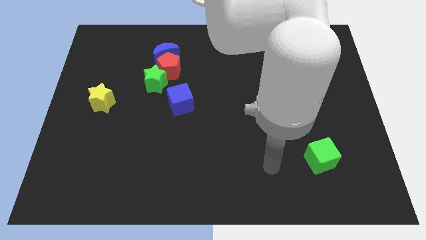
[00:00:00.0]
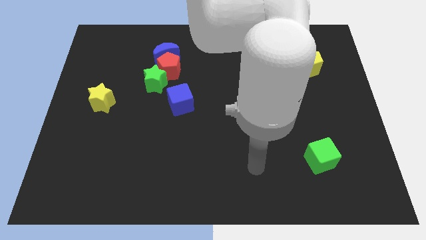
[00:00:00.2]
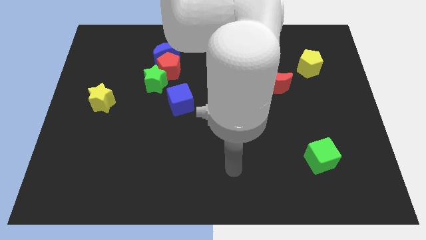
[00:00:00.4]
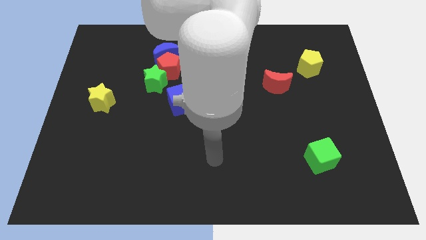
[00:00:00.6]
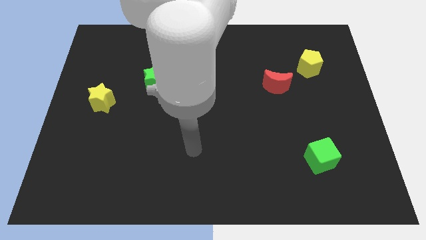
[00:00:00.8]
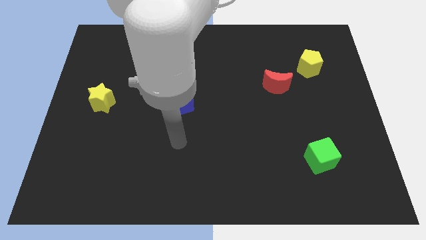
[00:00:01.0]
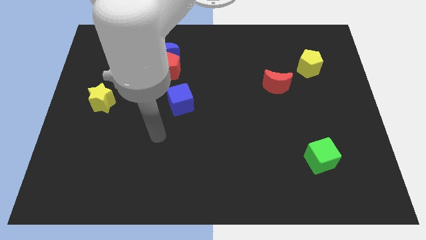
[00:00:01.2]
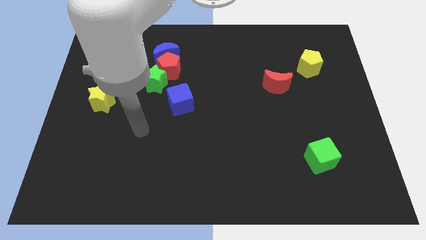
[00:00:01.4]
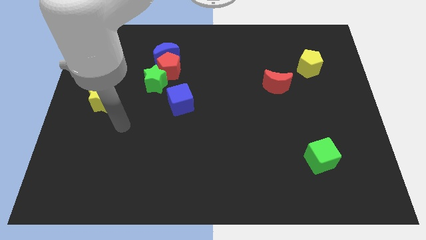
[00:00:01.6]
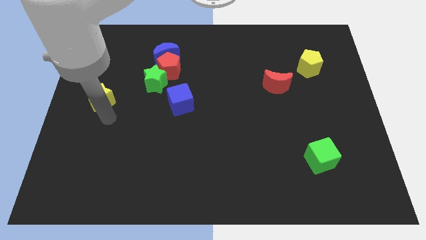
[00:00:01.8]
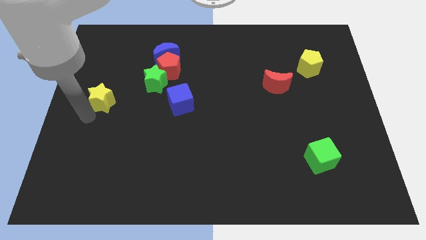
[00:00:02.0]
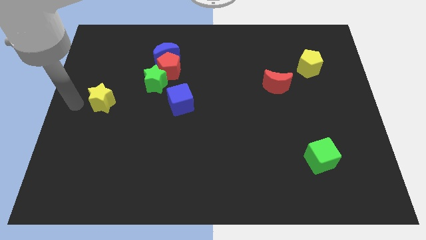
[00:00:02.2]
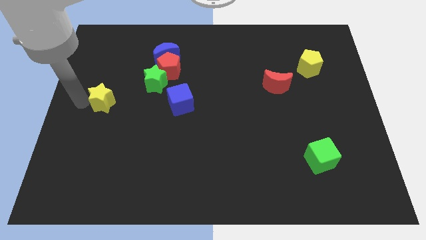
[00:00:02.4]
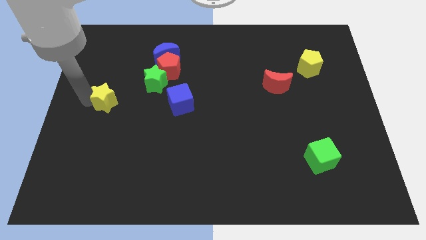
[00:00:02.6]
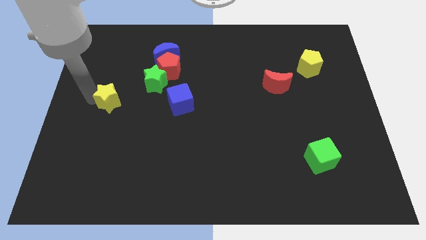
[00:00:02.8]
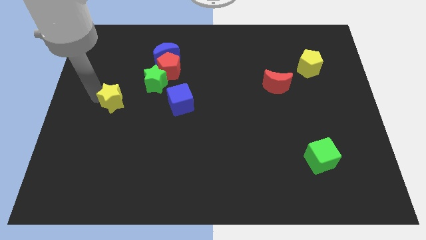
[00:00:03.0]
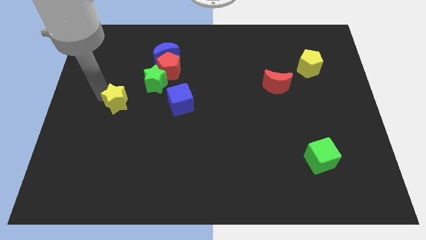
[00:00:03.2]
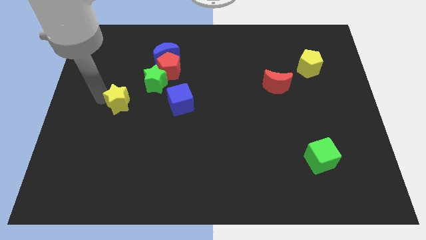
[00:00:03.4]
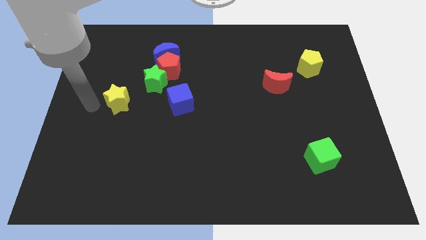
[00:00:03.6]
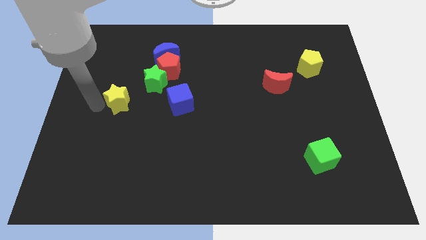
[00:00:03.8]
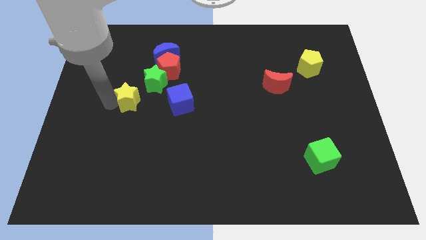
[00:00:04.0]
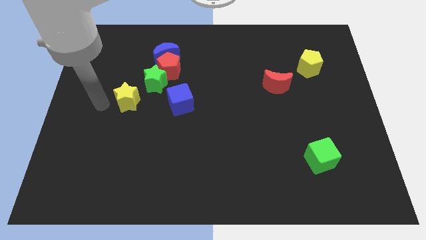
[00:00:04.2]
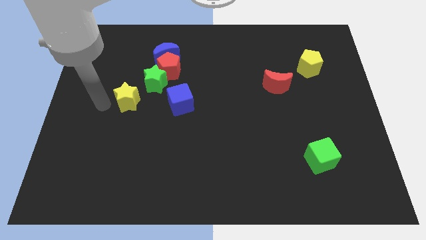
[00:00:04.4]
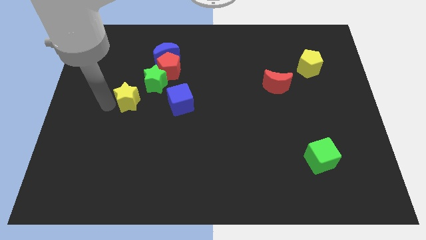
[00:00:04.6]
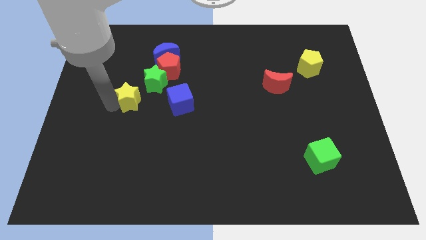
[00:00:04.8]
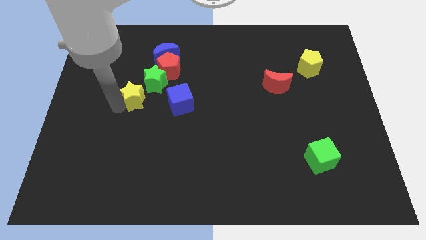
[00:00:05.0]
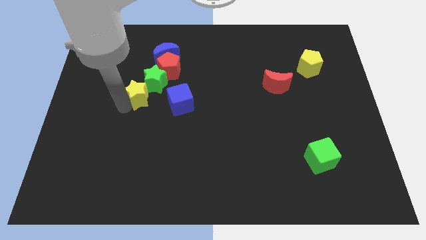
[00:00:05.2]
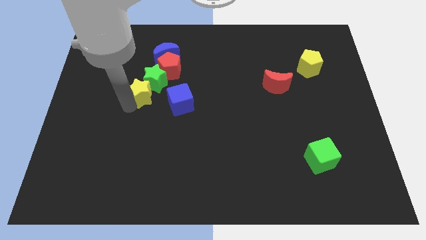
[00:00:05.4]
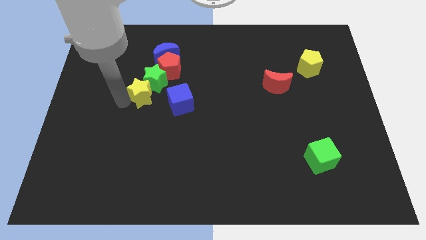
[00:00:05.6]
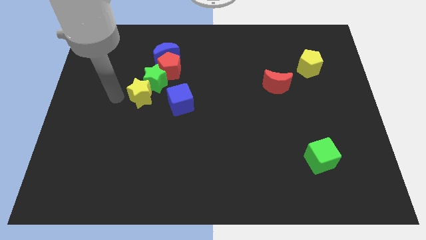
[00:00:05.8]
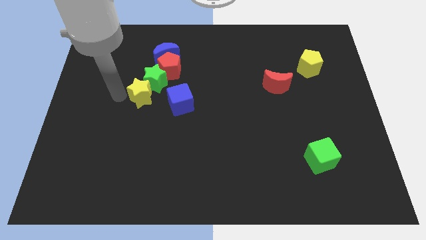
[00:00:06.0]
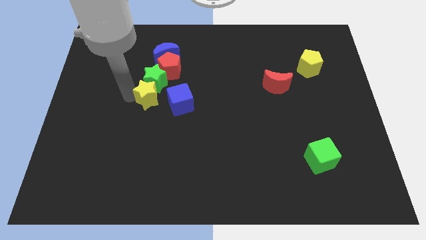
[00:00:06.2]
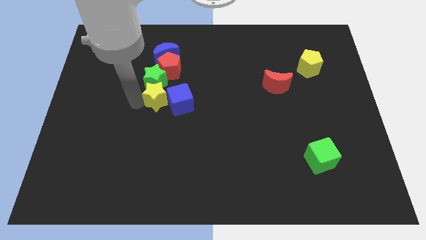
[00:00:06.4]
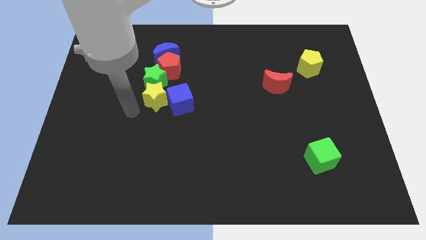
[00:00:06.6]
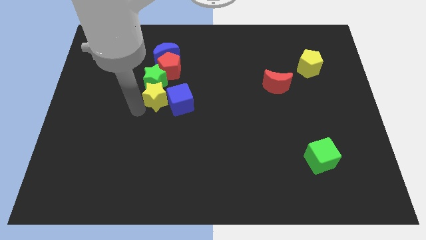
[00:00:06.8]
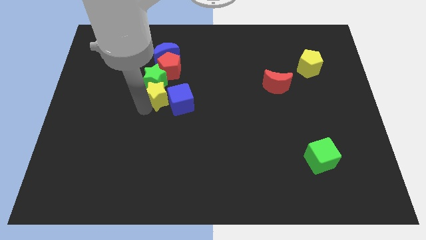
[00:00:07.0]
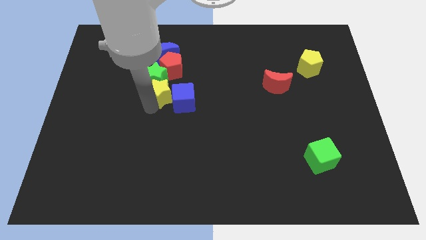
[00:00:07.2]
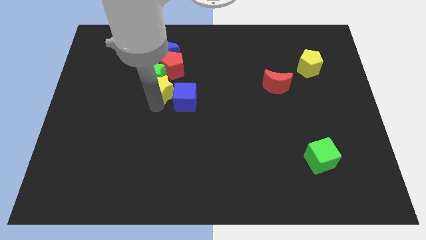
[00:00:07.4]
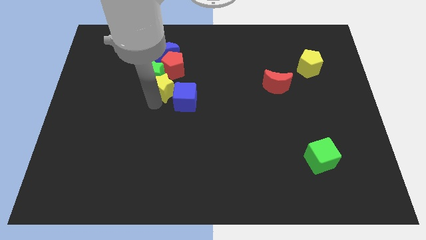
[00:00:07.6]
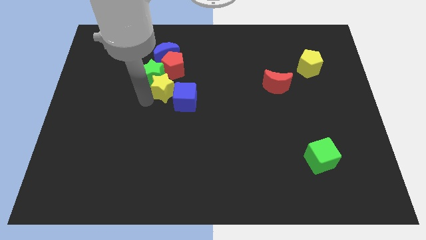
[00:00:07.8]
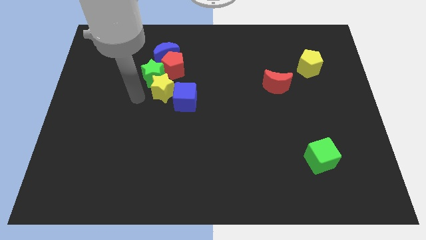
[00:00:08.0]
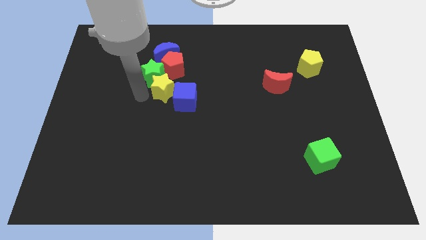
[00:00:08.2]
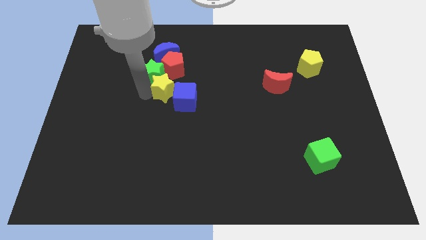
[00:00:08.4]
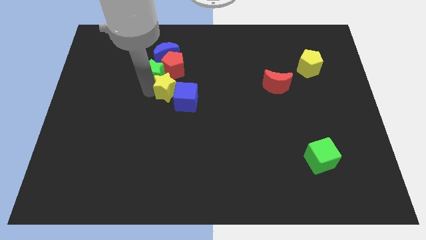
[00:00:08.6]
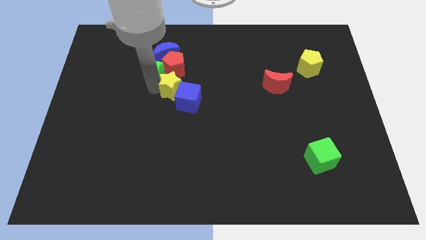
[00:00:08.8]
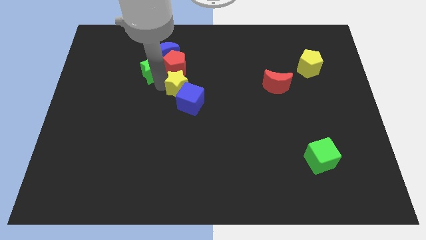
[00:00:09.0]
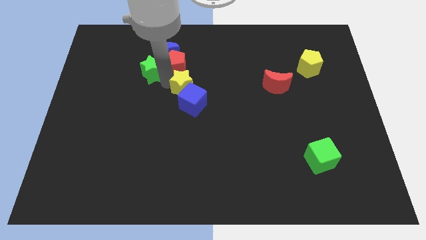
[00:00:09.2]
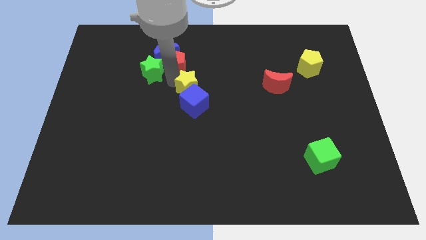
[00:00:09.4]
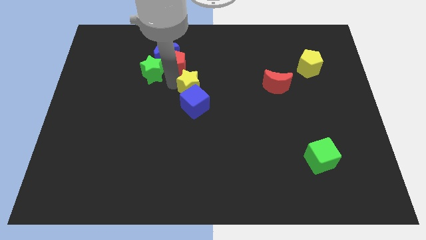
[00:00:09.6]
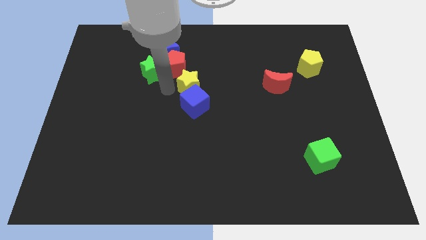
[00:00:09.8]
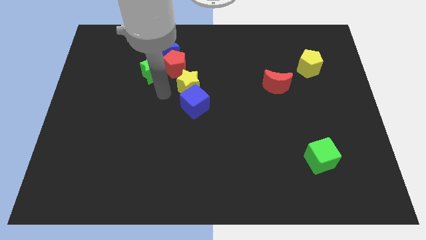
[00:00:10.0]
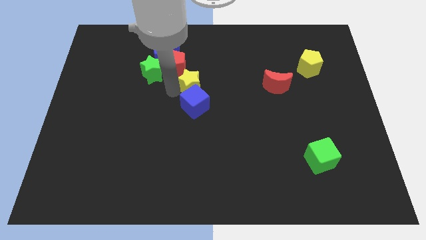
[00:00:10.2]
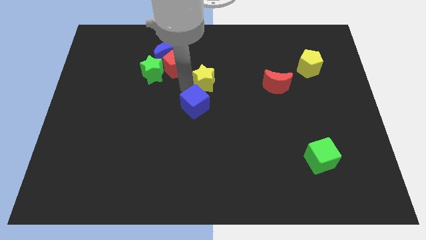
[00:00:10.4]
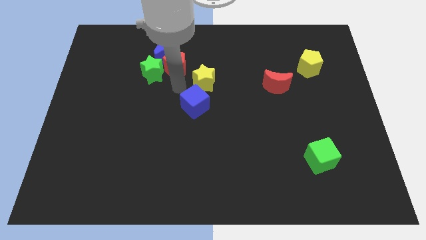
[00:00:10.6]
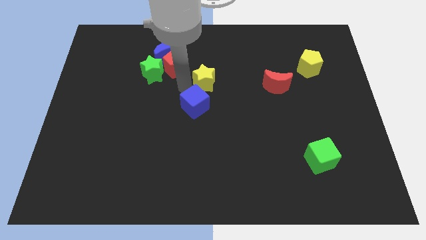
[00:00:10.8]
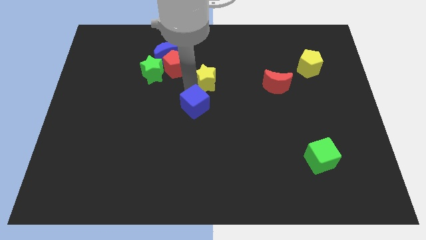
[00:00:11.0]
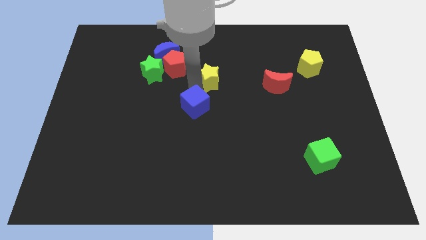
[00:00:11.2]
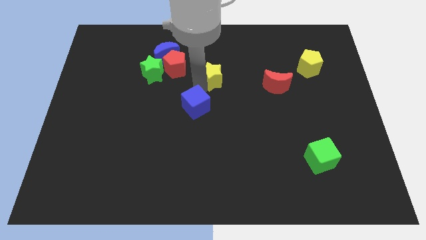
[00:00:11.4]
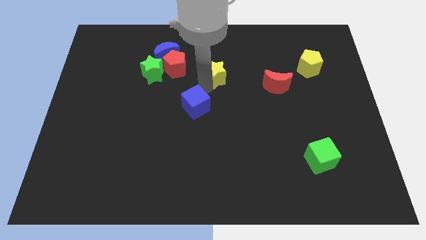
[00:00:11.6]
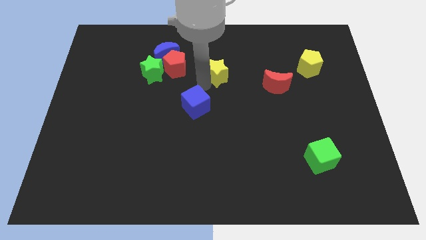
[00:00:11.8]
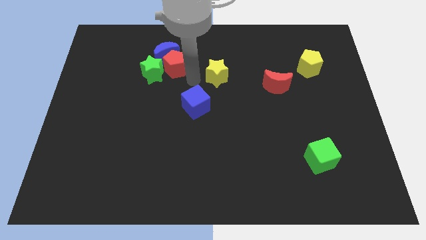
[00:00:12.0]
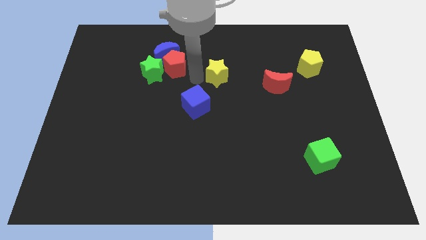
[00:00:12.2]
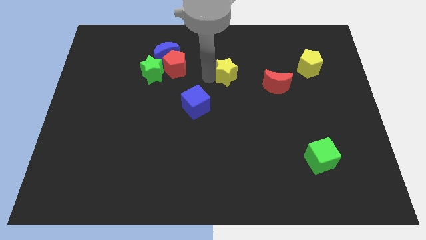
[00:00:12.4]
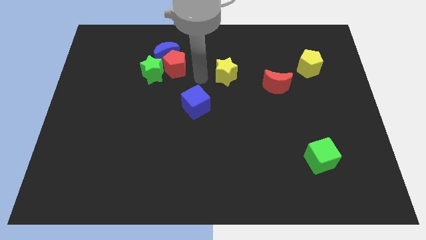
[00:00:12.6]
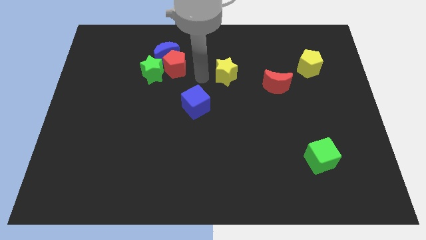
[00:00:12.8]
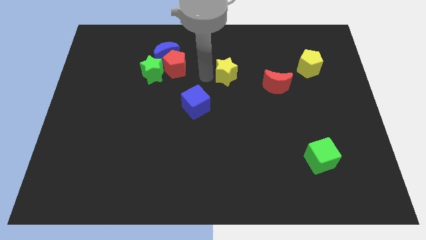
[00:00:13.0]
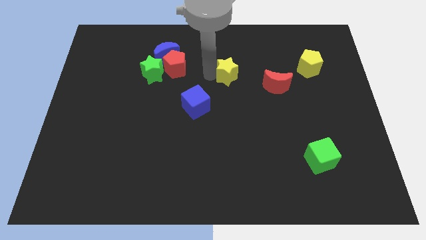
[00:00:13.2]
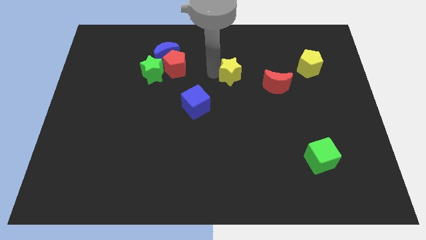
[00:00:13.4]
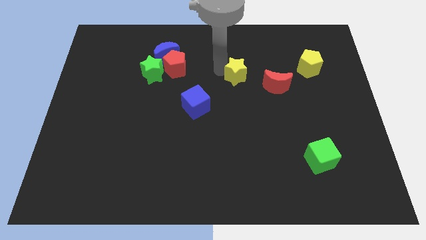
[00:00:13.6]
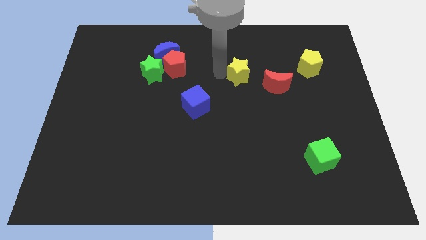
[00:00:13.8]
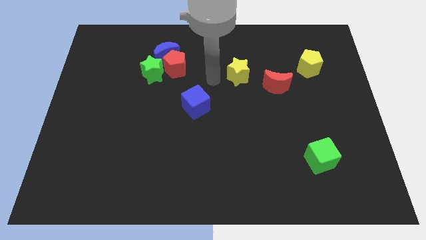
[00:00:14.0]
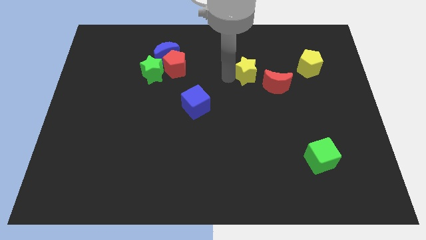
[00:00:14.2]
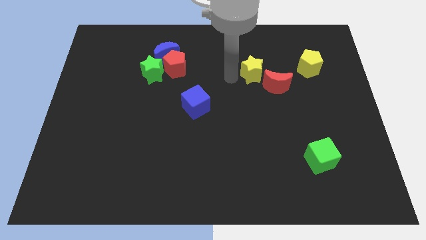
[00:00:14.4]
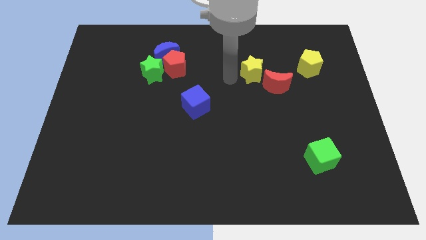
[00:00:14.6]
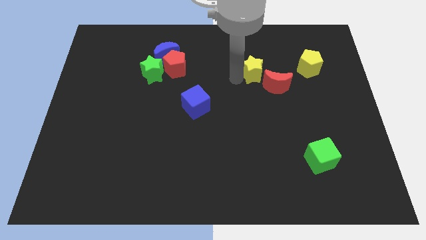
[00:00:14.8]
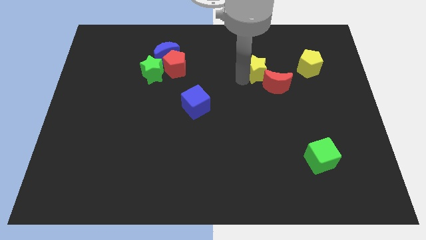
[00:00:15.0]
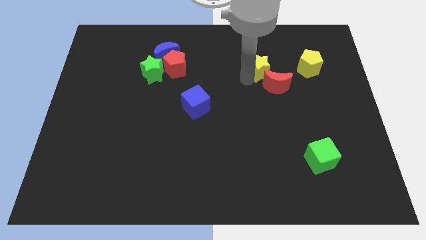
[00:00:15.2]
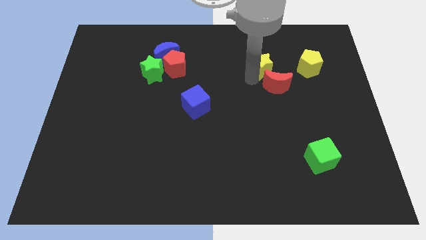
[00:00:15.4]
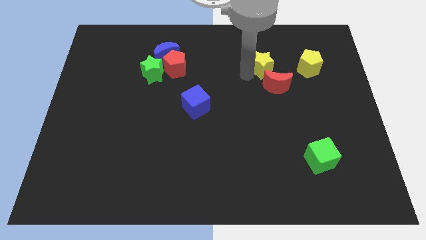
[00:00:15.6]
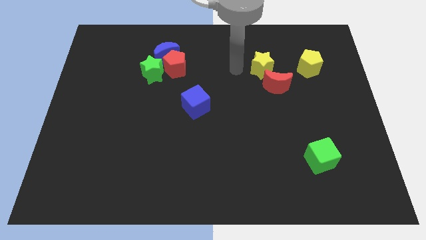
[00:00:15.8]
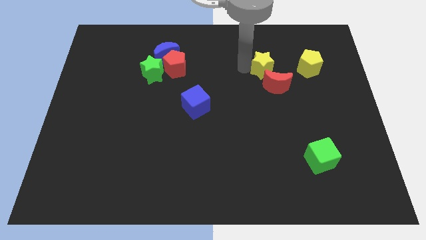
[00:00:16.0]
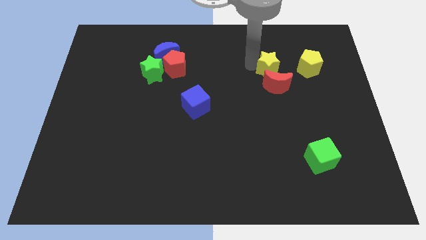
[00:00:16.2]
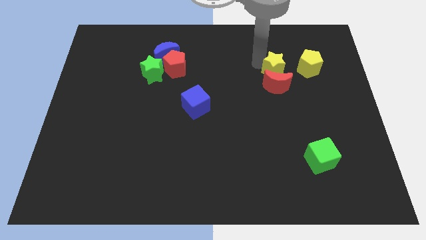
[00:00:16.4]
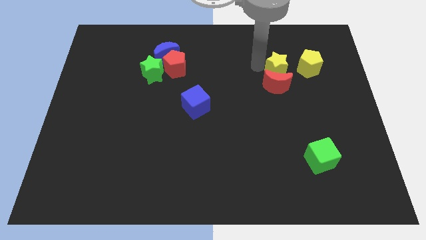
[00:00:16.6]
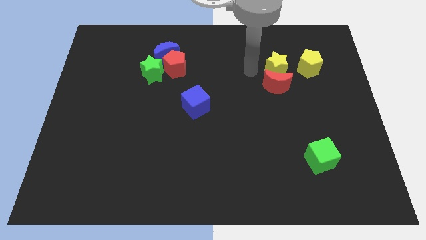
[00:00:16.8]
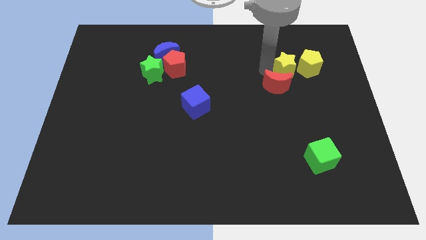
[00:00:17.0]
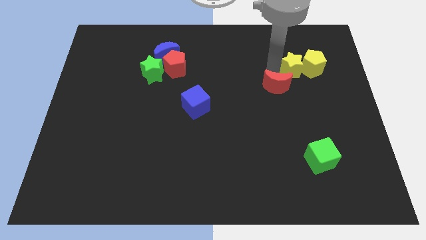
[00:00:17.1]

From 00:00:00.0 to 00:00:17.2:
put the yellow star close to the yellow pentagon
